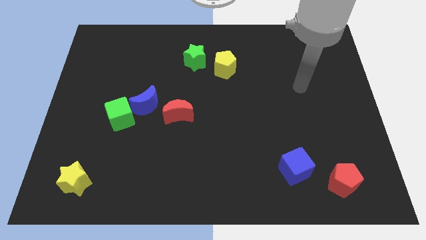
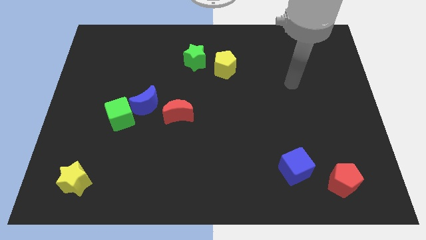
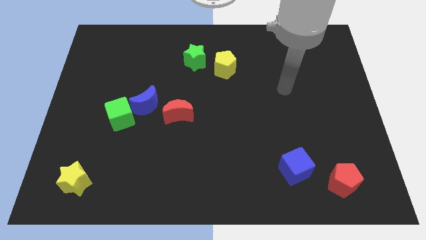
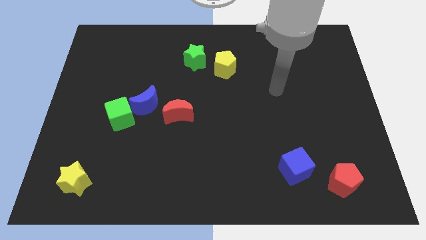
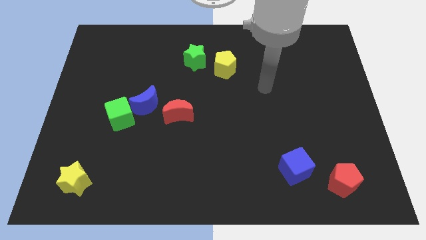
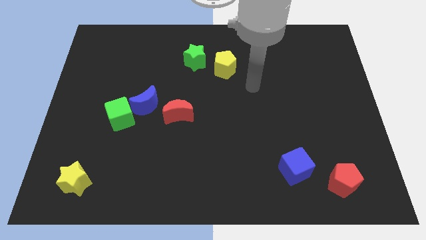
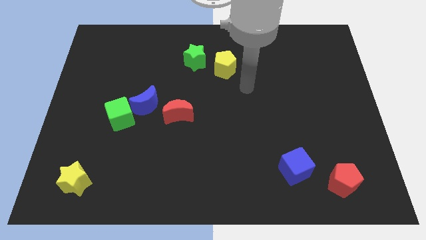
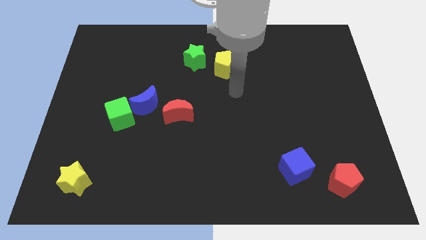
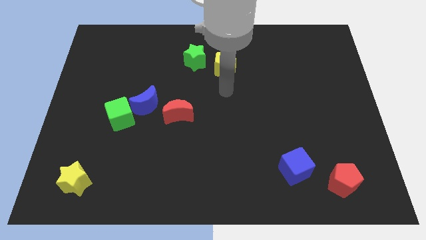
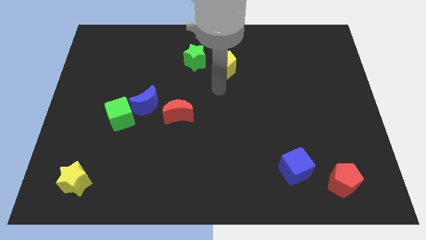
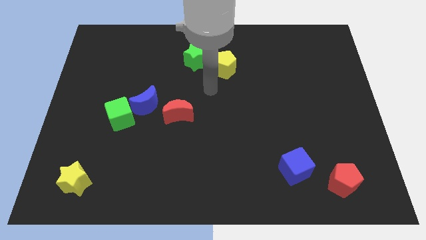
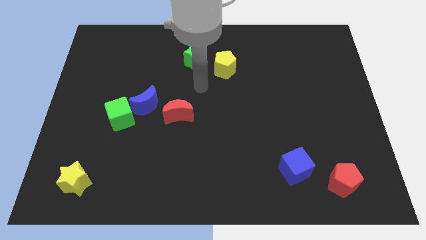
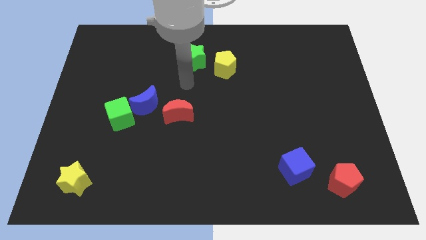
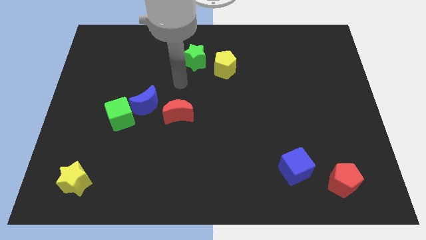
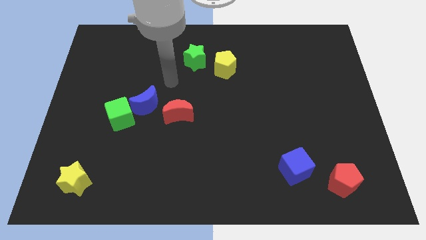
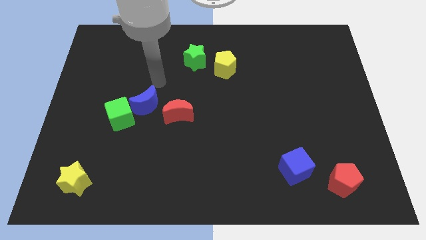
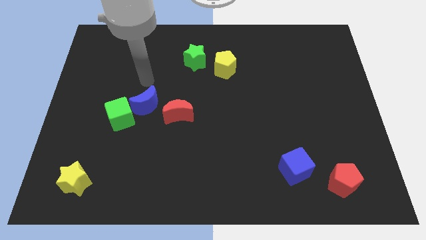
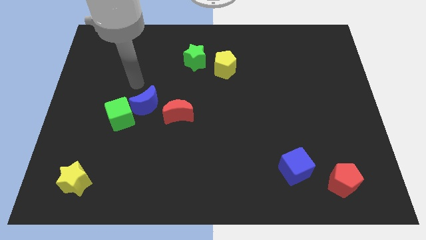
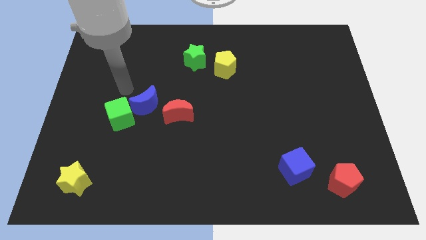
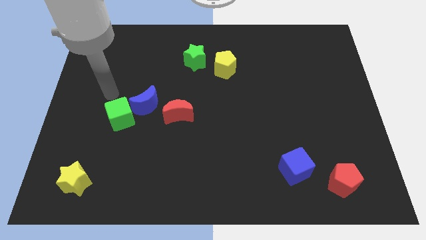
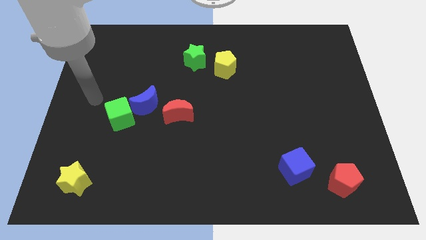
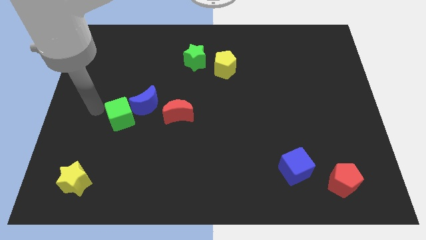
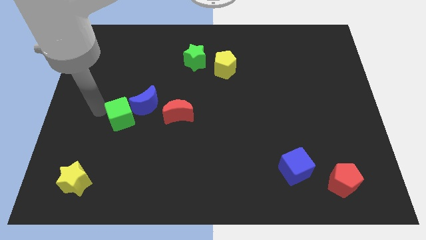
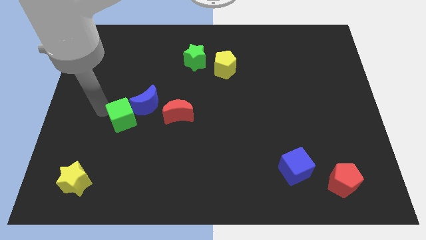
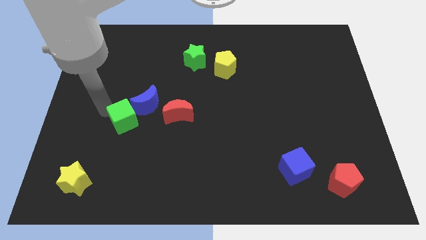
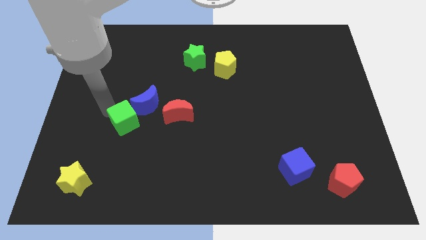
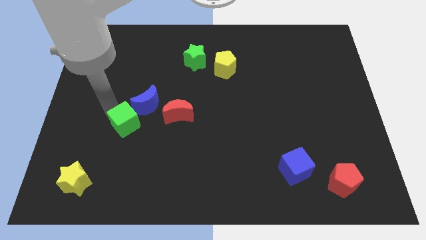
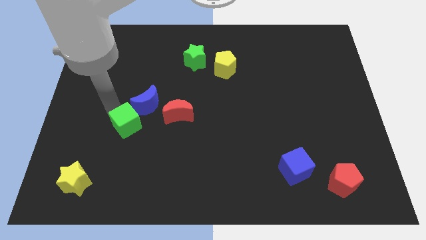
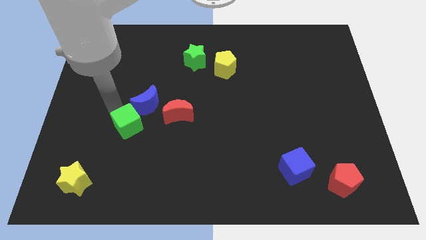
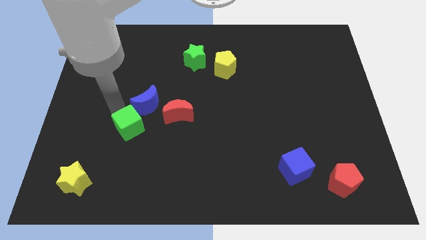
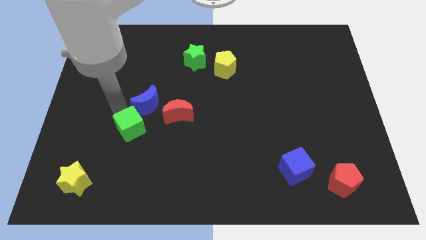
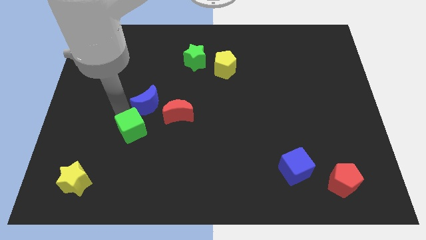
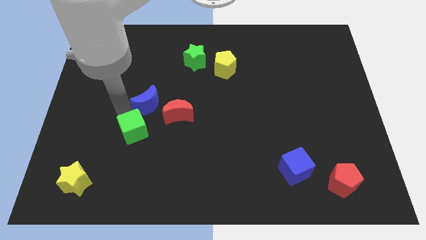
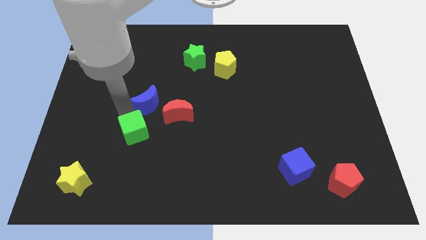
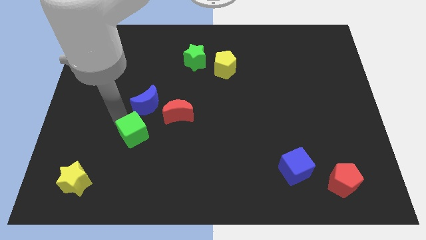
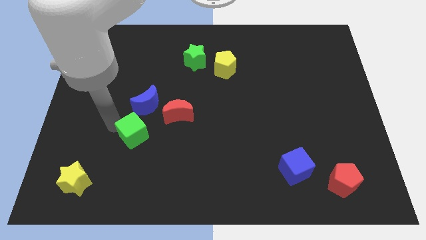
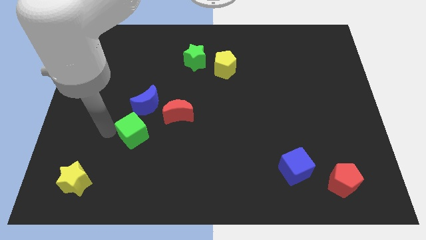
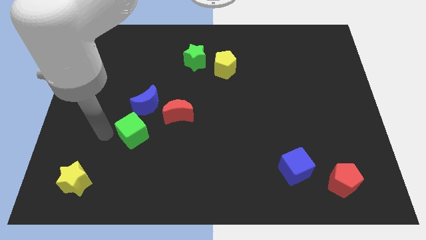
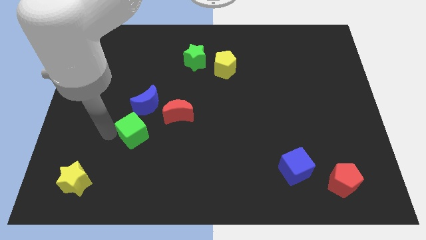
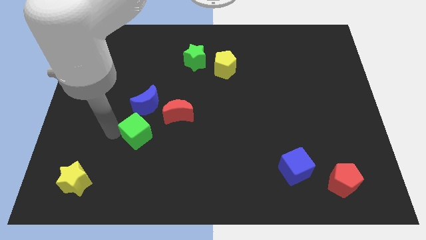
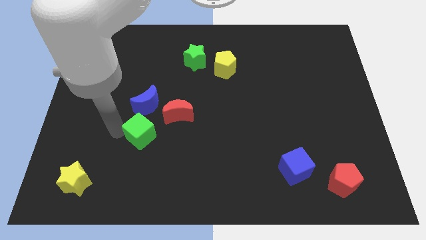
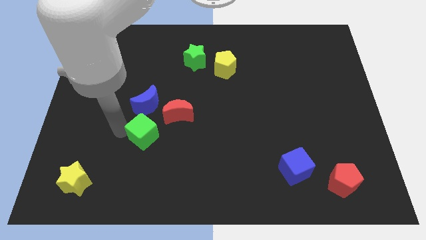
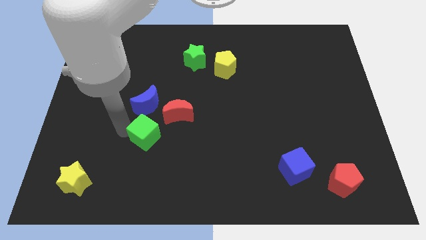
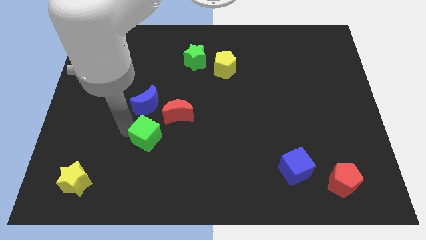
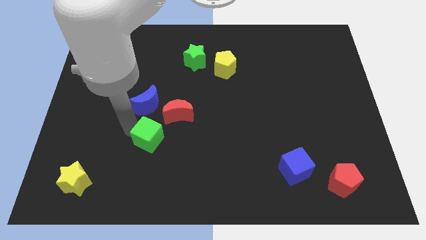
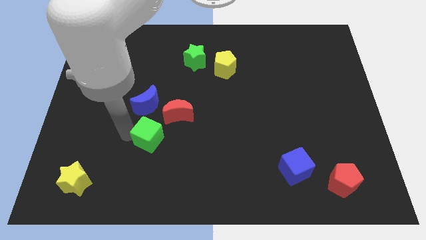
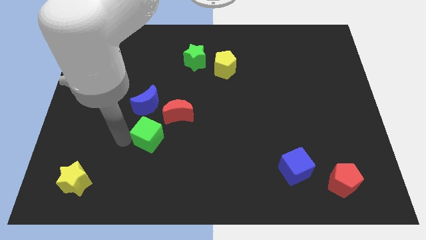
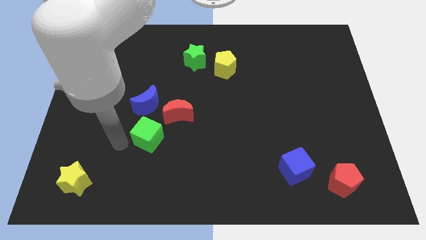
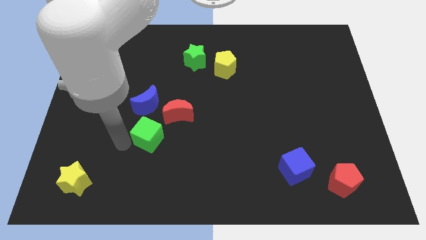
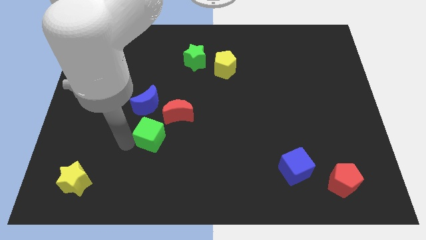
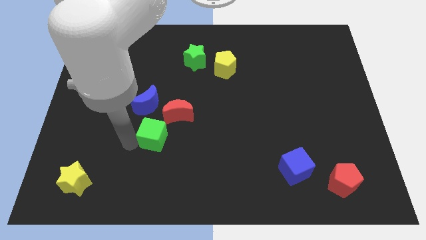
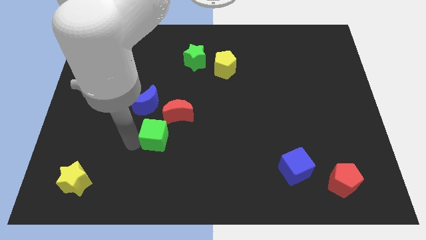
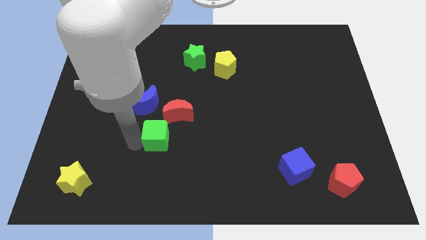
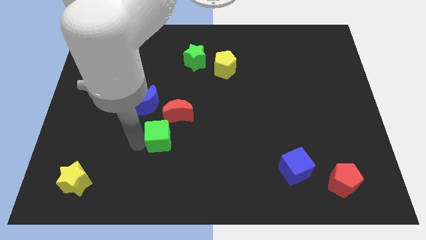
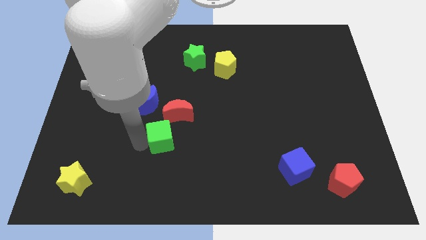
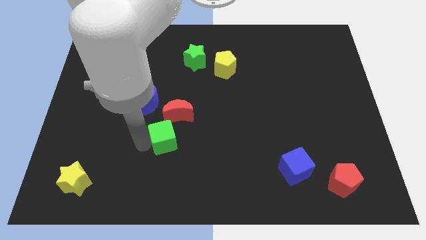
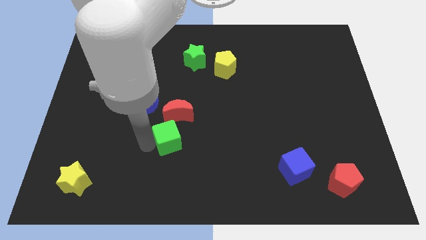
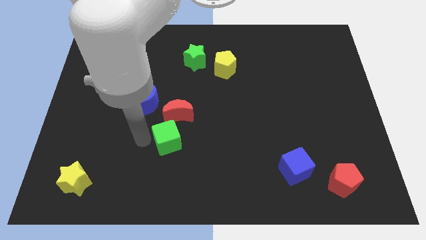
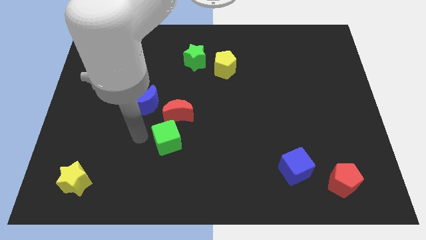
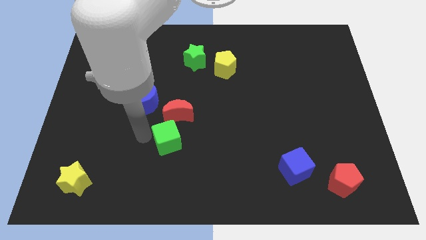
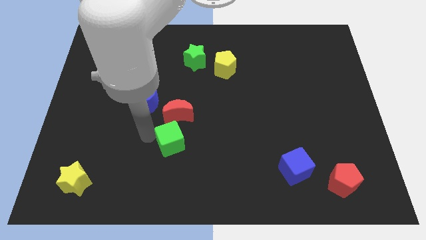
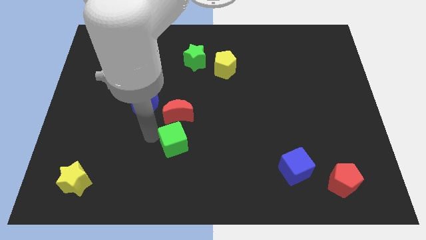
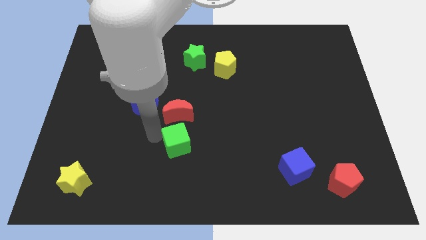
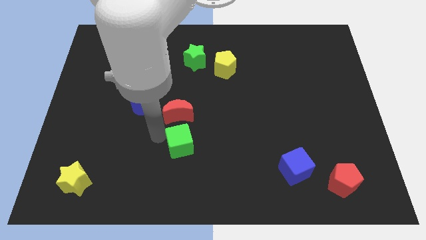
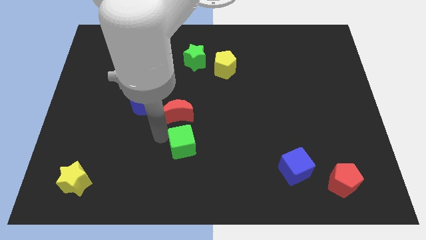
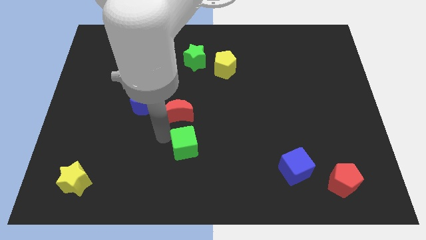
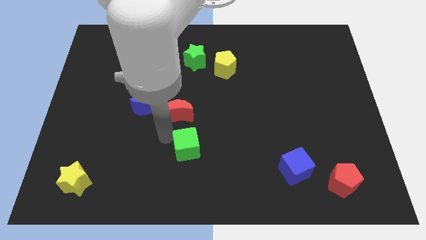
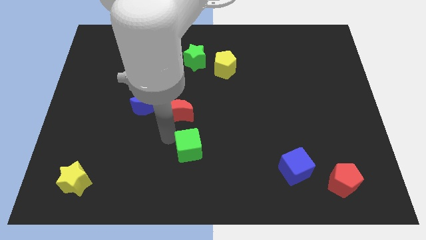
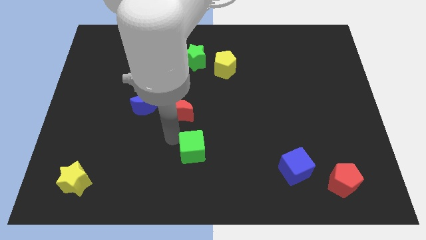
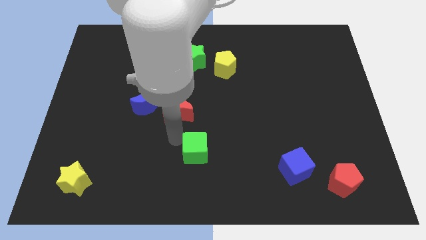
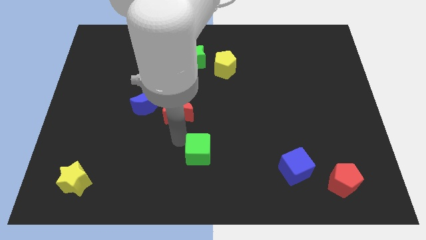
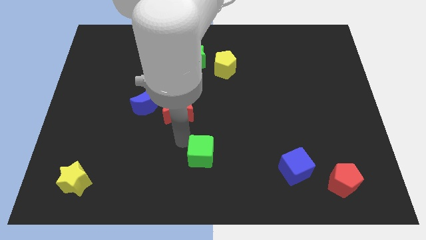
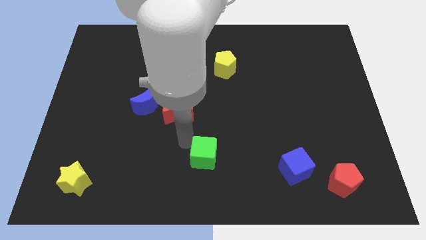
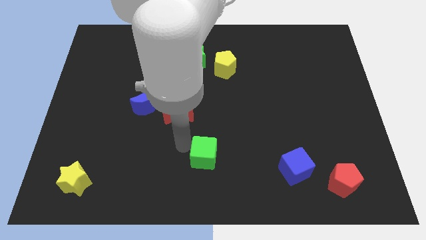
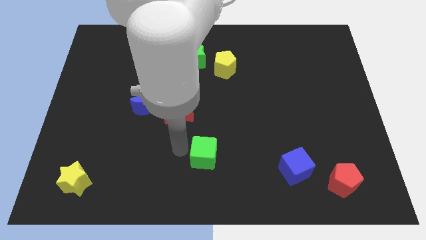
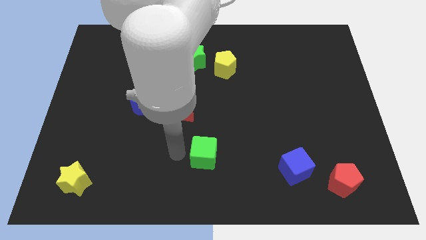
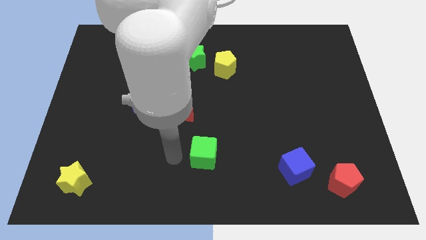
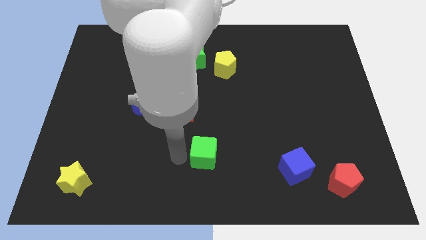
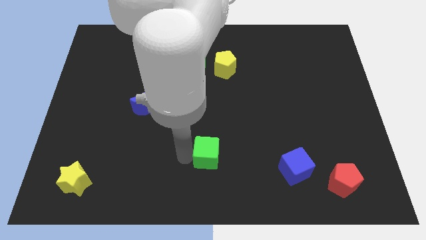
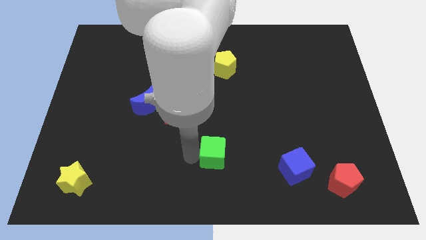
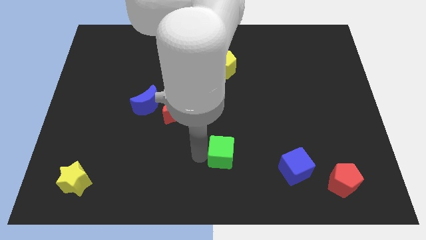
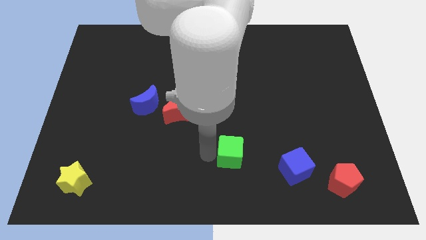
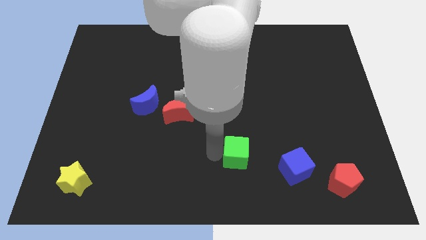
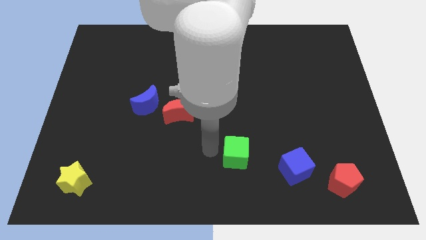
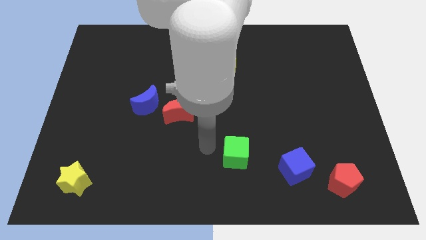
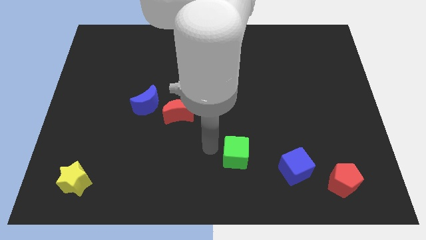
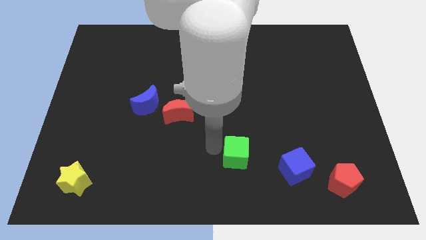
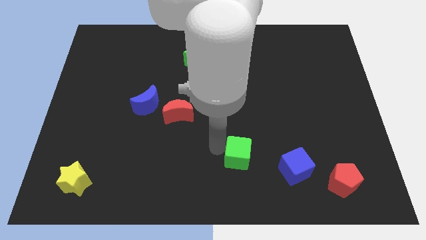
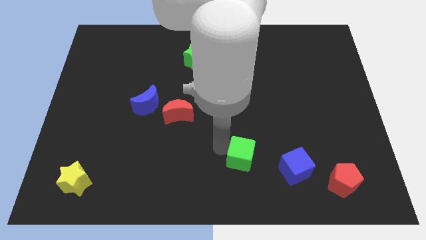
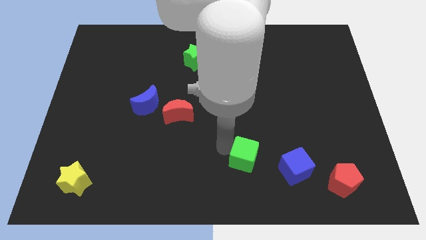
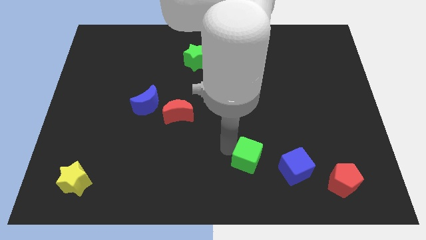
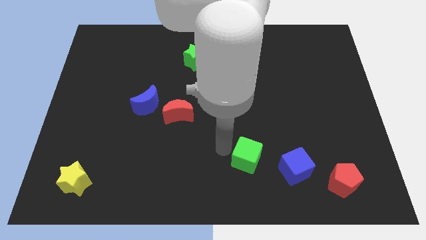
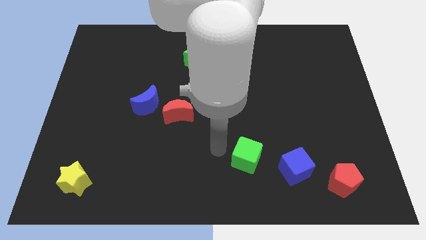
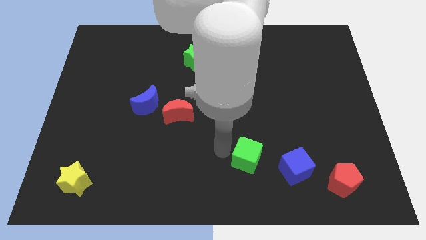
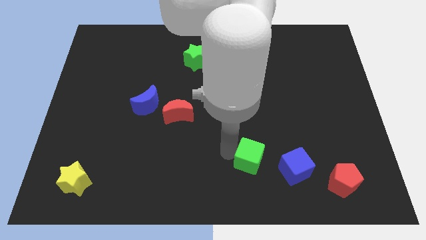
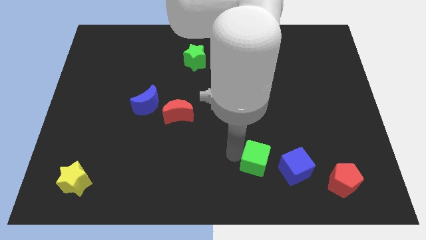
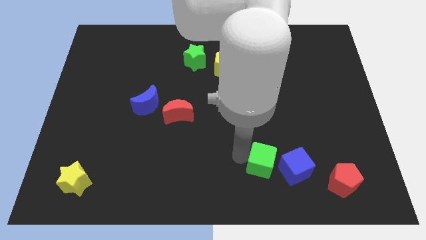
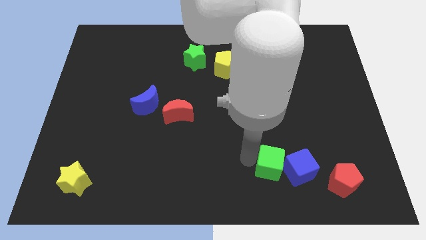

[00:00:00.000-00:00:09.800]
put the green cube next to the blue cube
